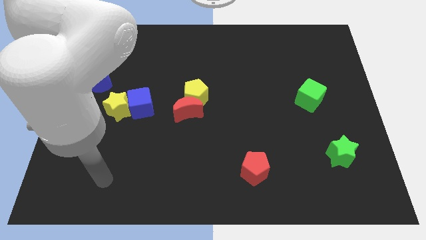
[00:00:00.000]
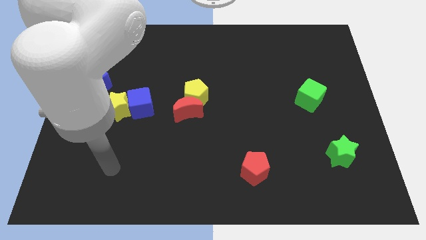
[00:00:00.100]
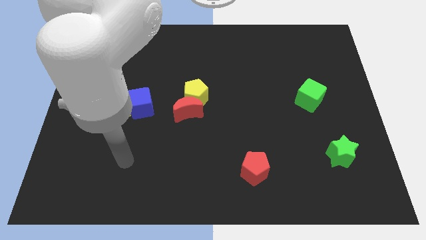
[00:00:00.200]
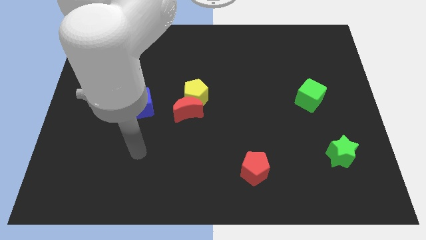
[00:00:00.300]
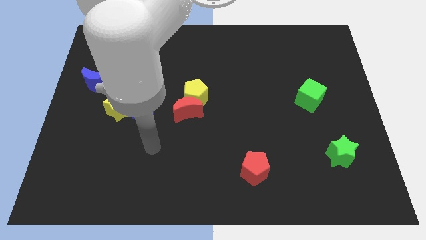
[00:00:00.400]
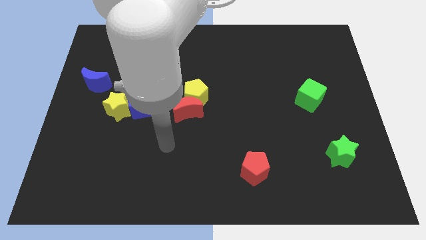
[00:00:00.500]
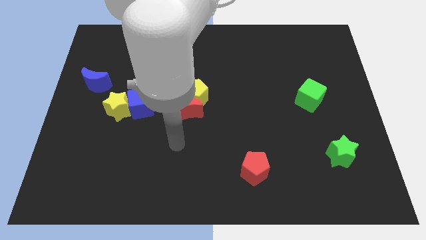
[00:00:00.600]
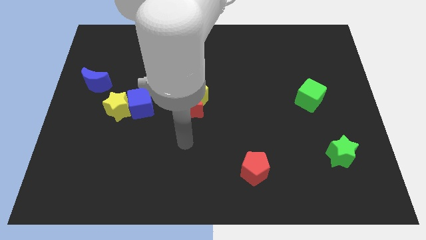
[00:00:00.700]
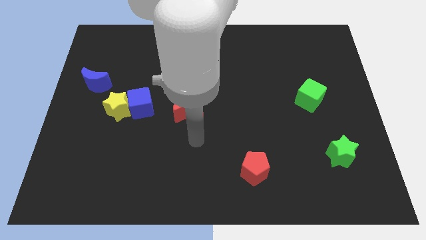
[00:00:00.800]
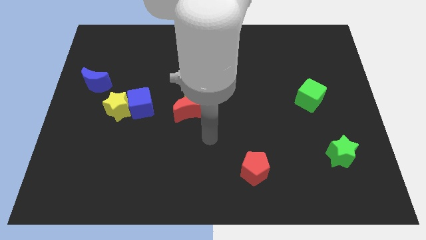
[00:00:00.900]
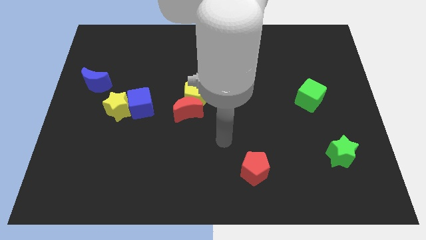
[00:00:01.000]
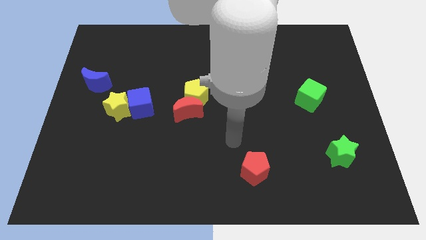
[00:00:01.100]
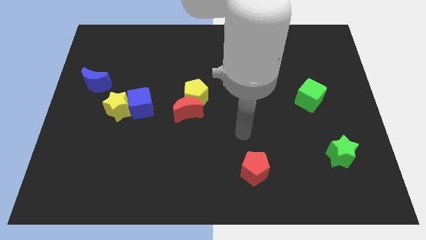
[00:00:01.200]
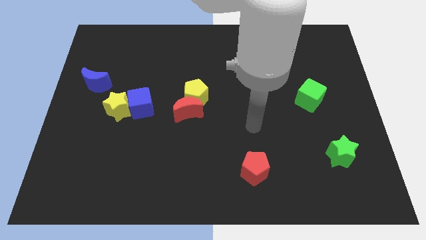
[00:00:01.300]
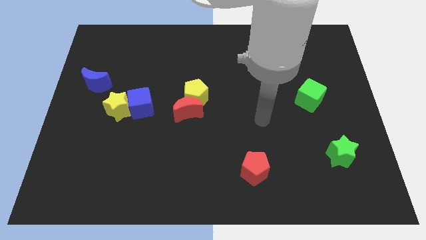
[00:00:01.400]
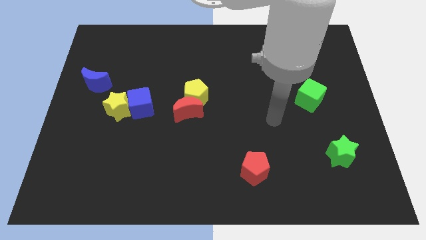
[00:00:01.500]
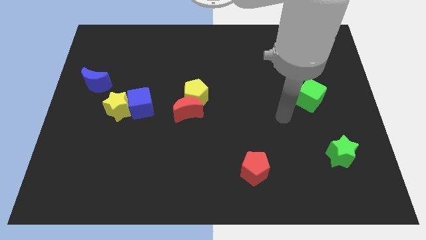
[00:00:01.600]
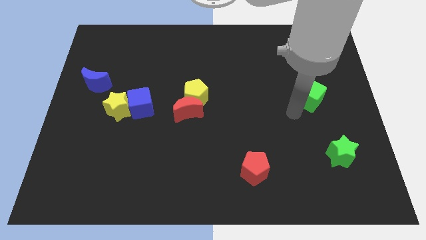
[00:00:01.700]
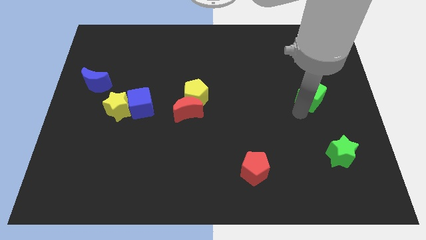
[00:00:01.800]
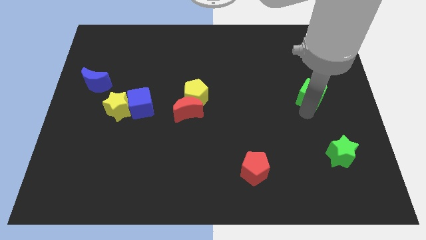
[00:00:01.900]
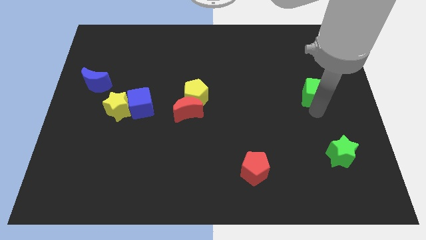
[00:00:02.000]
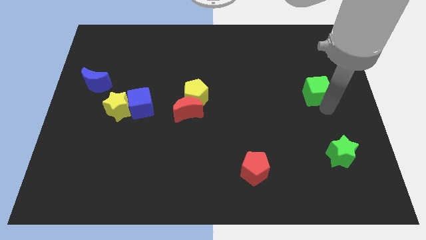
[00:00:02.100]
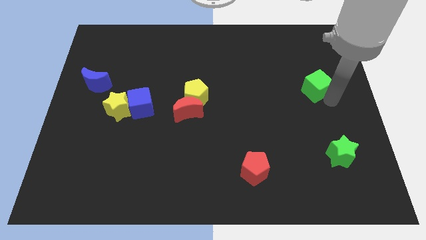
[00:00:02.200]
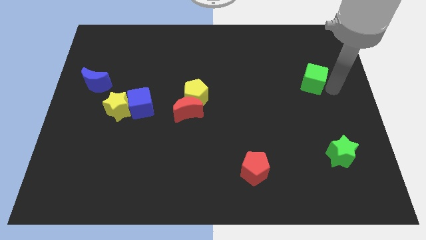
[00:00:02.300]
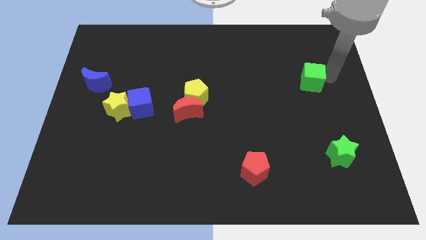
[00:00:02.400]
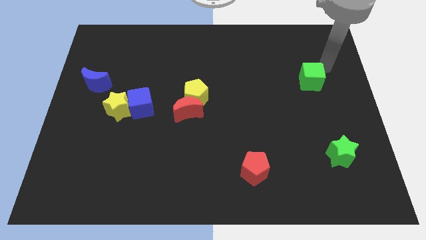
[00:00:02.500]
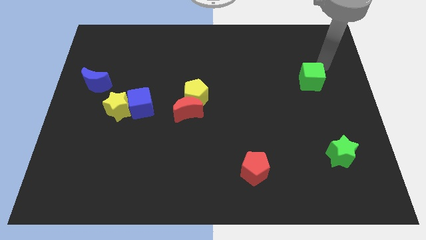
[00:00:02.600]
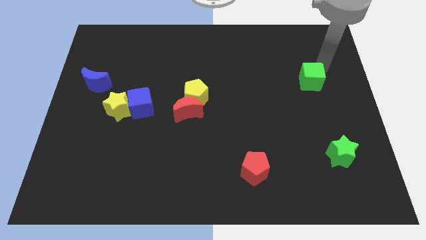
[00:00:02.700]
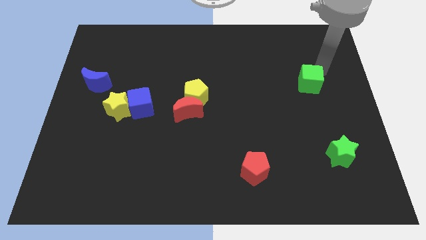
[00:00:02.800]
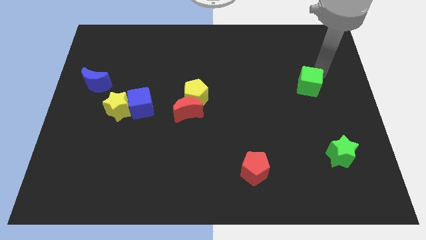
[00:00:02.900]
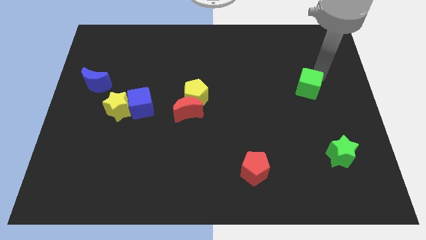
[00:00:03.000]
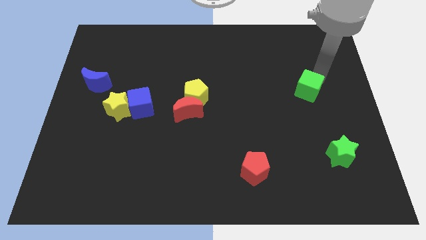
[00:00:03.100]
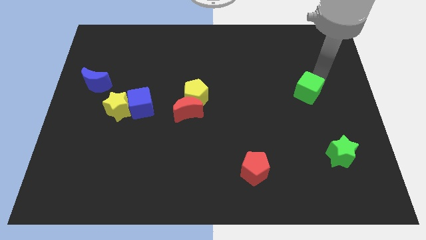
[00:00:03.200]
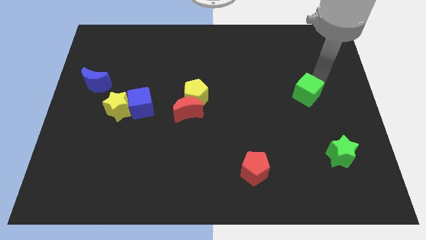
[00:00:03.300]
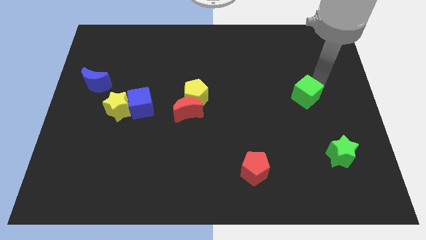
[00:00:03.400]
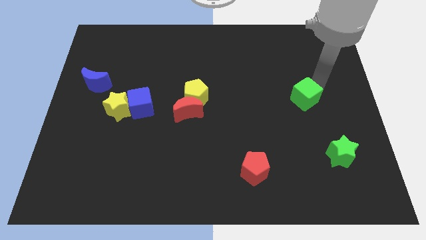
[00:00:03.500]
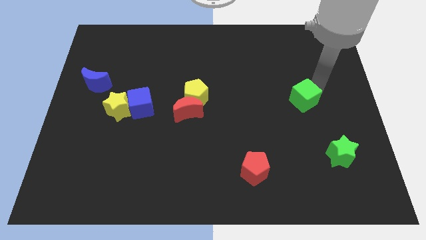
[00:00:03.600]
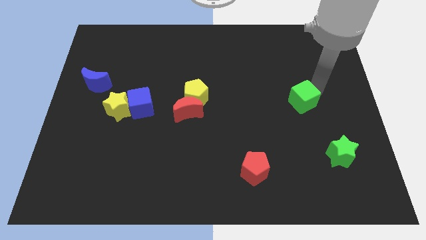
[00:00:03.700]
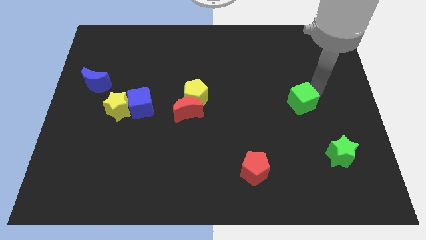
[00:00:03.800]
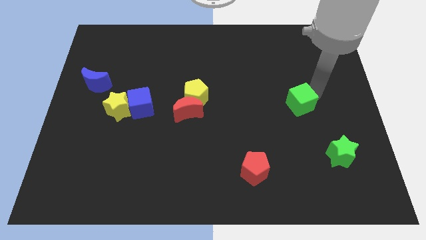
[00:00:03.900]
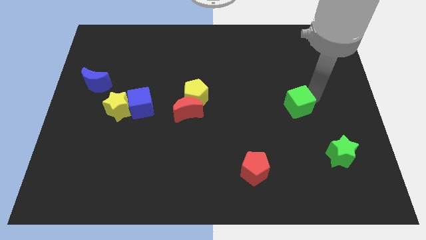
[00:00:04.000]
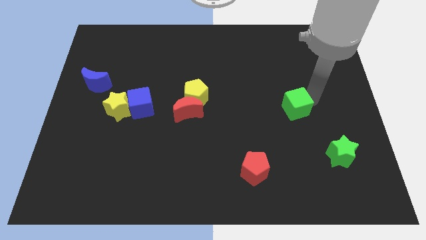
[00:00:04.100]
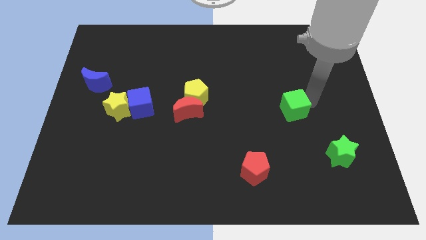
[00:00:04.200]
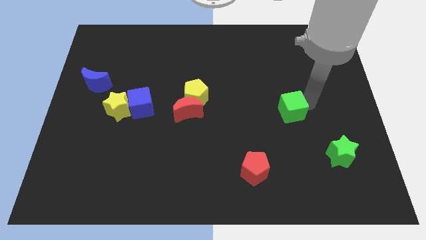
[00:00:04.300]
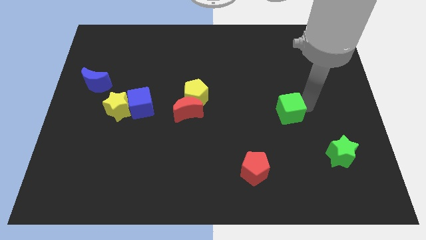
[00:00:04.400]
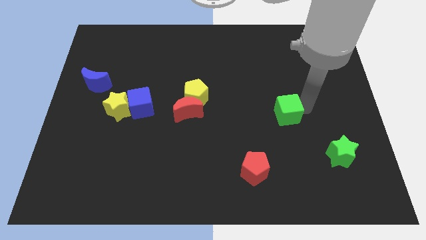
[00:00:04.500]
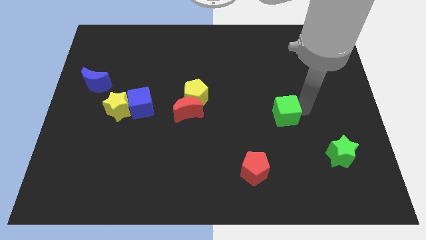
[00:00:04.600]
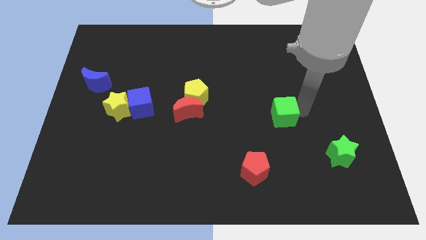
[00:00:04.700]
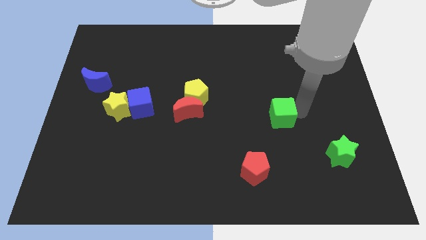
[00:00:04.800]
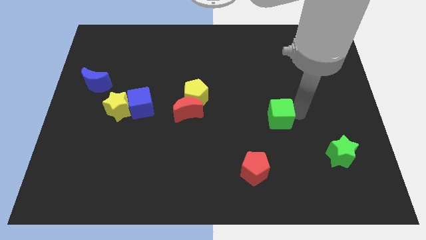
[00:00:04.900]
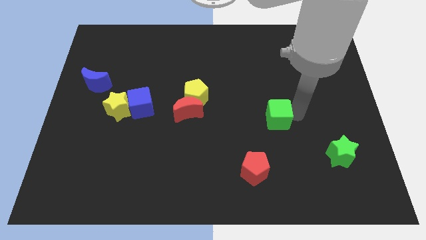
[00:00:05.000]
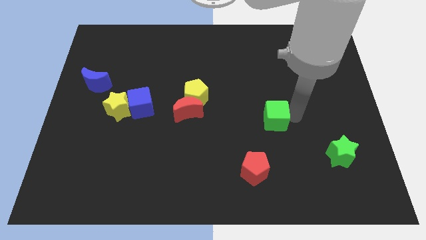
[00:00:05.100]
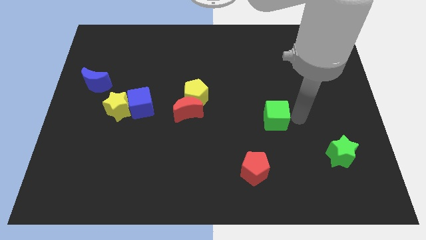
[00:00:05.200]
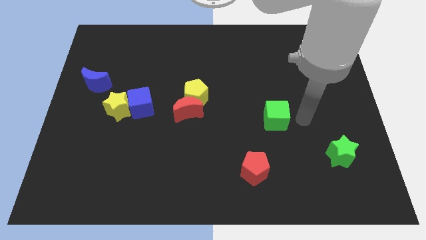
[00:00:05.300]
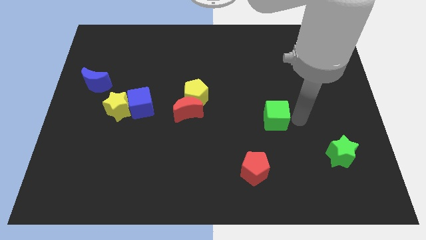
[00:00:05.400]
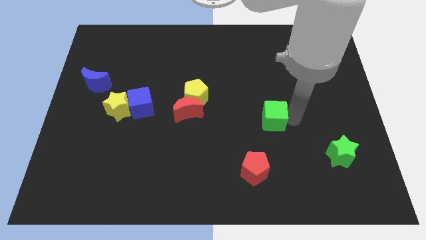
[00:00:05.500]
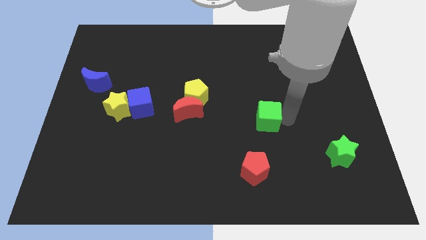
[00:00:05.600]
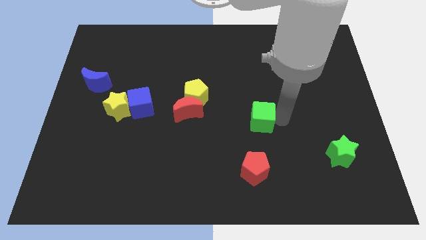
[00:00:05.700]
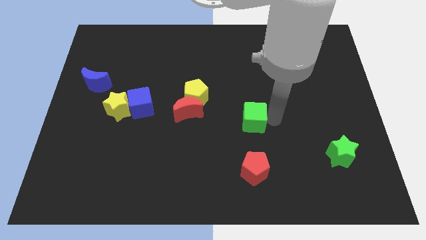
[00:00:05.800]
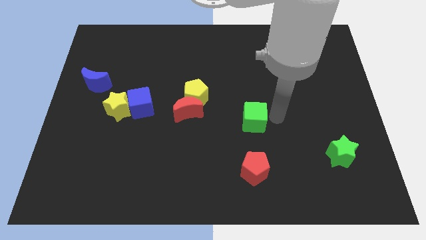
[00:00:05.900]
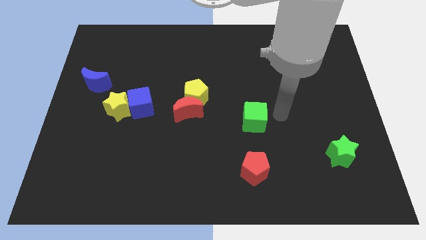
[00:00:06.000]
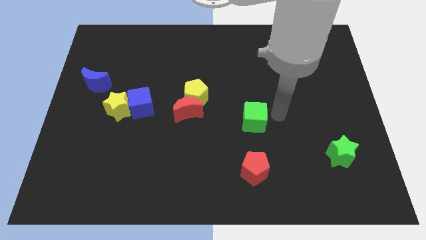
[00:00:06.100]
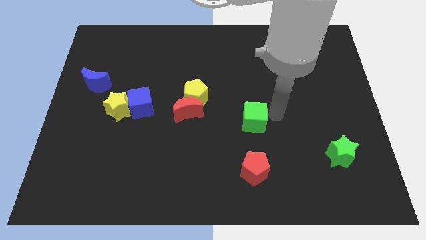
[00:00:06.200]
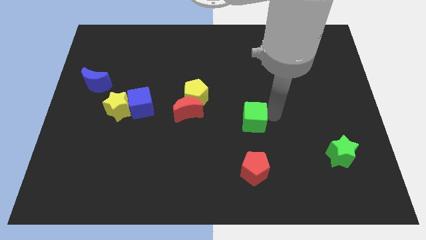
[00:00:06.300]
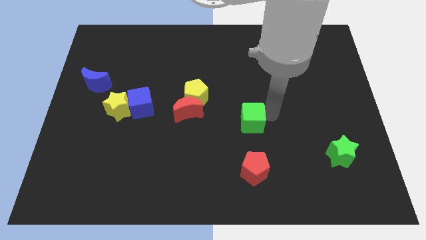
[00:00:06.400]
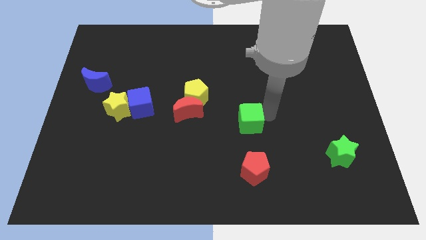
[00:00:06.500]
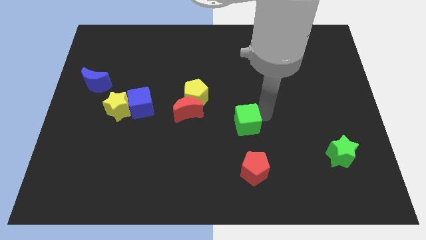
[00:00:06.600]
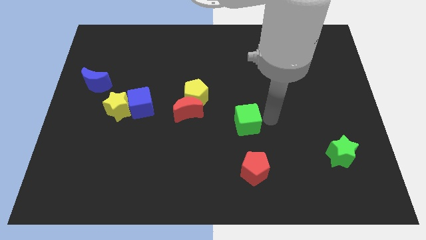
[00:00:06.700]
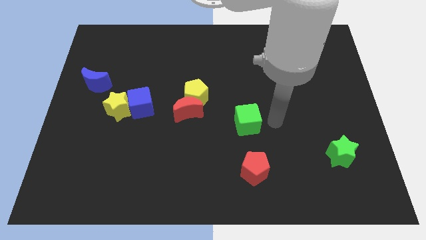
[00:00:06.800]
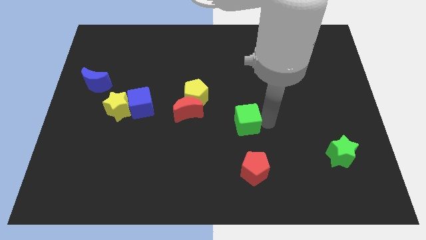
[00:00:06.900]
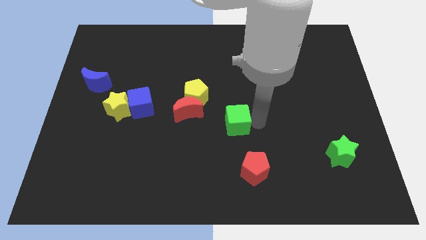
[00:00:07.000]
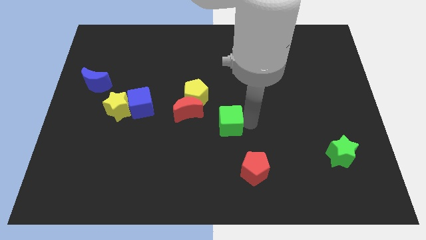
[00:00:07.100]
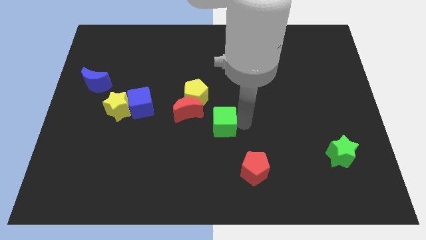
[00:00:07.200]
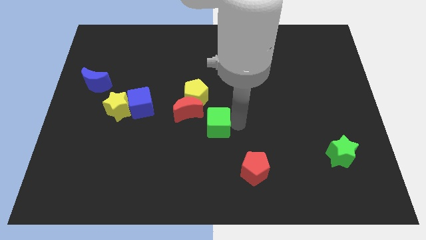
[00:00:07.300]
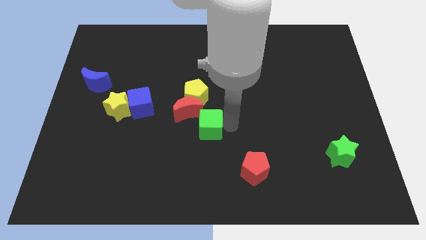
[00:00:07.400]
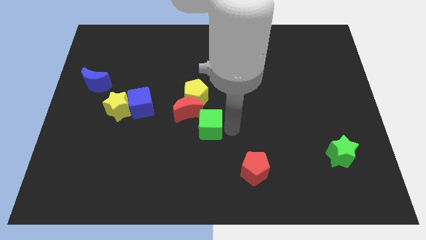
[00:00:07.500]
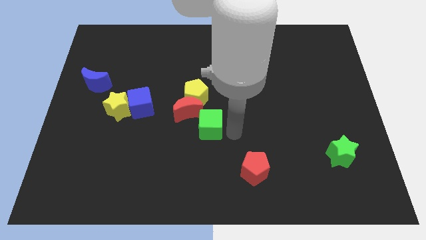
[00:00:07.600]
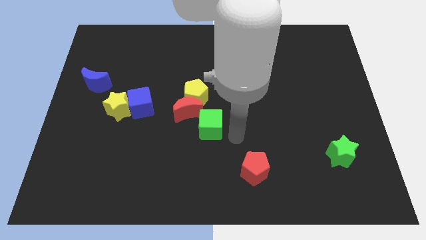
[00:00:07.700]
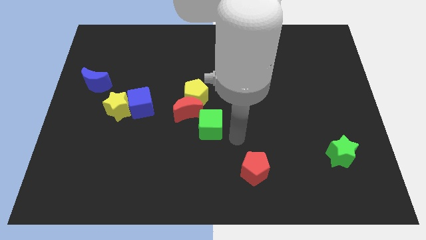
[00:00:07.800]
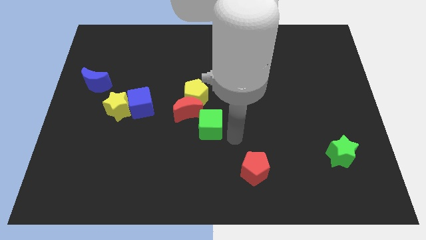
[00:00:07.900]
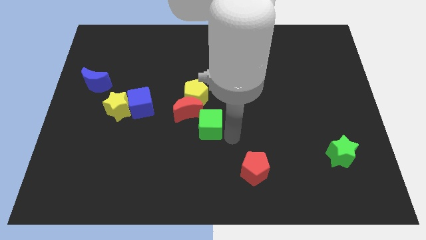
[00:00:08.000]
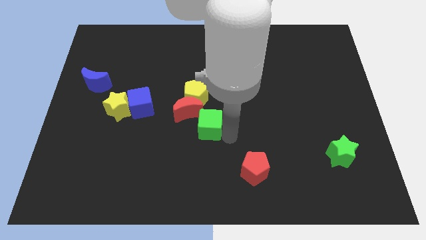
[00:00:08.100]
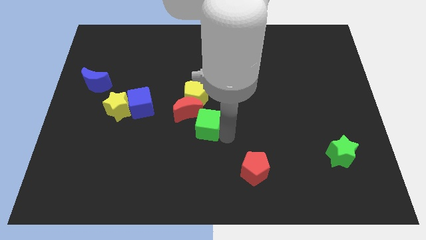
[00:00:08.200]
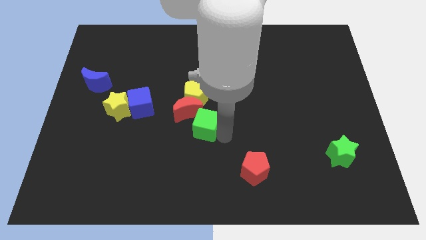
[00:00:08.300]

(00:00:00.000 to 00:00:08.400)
slide the green cube next to the red moon
